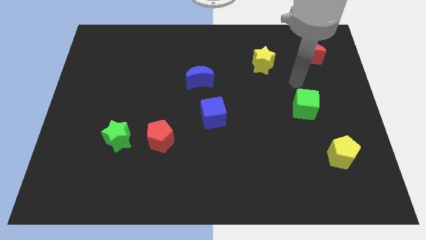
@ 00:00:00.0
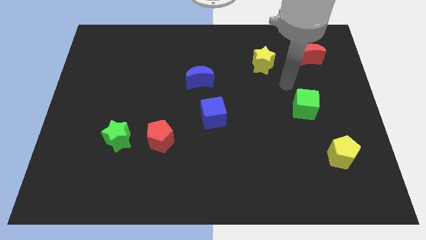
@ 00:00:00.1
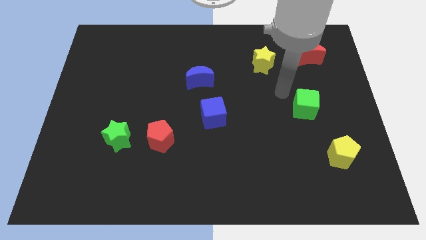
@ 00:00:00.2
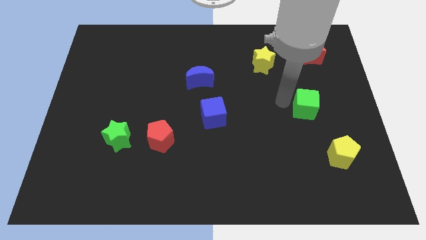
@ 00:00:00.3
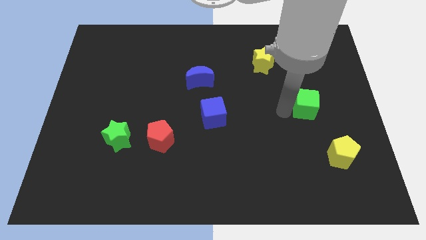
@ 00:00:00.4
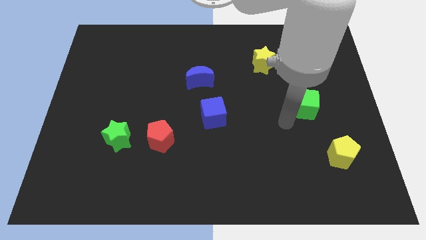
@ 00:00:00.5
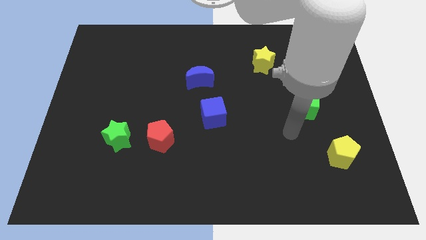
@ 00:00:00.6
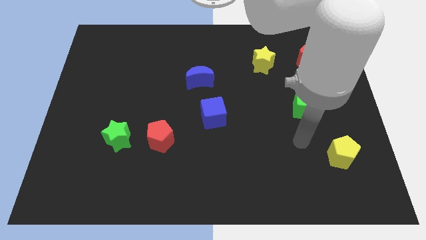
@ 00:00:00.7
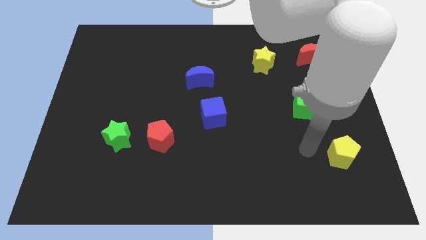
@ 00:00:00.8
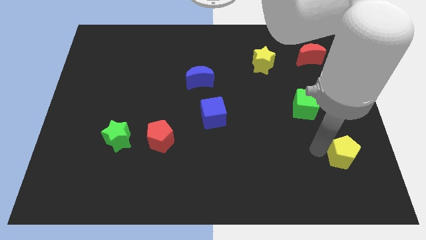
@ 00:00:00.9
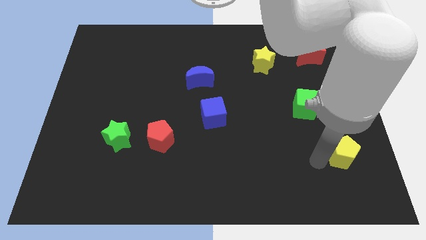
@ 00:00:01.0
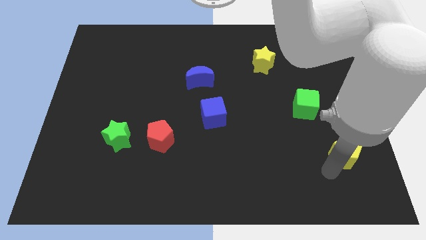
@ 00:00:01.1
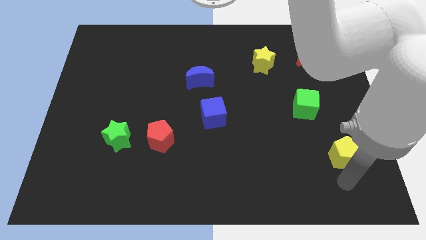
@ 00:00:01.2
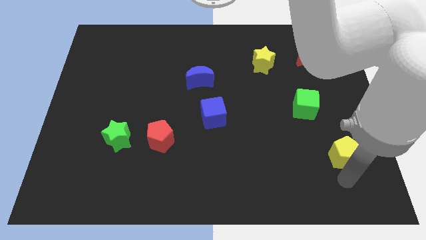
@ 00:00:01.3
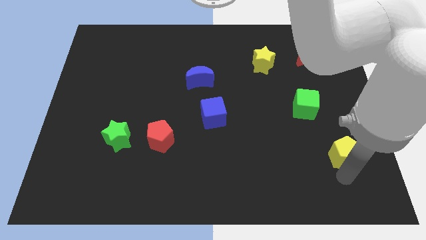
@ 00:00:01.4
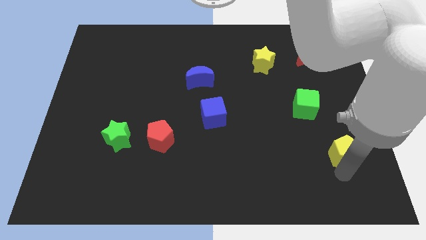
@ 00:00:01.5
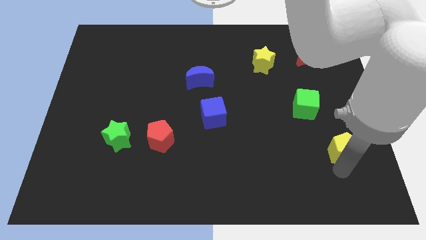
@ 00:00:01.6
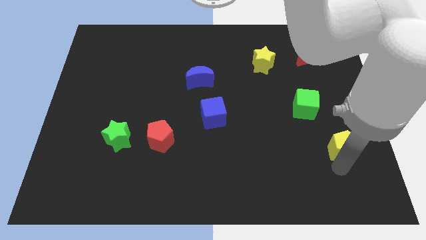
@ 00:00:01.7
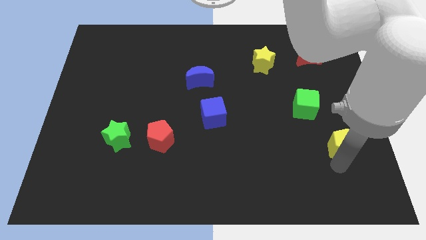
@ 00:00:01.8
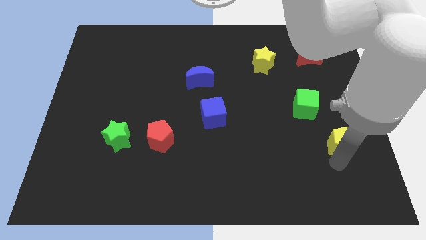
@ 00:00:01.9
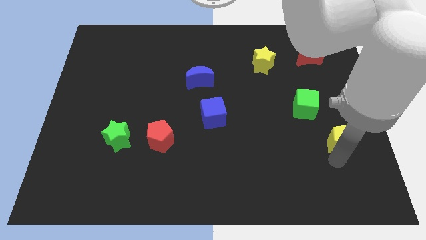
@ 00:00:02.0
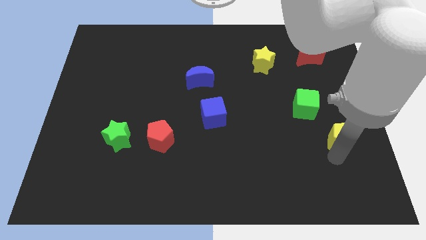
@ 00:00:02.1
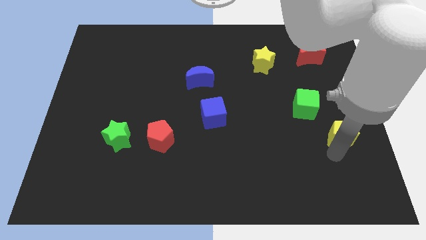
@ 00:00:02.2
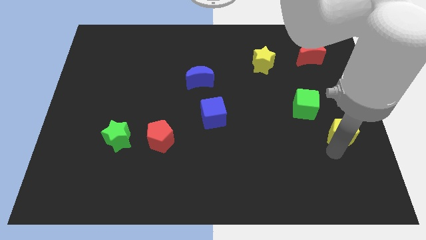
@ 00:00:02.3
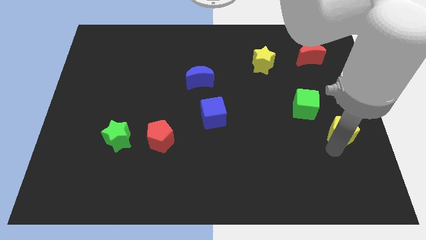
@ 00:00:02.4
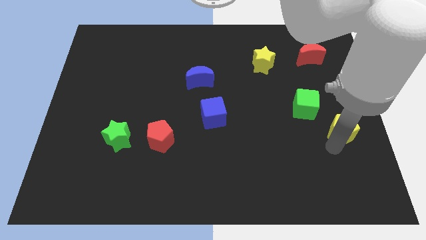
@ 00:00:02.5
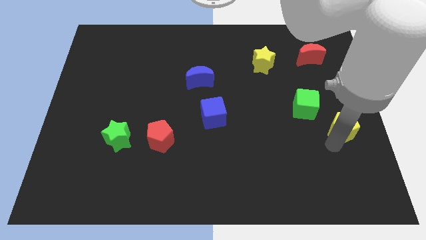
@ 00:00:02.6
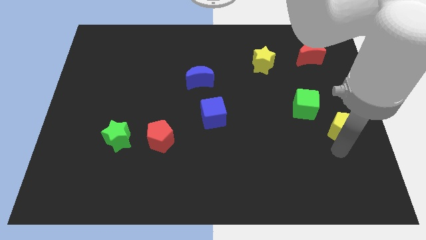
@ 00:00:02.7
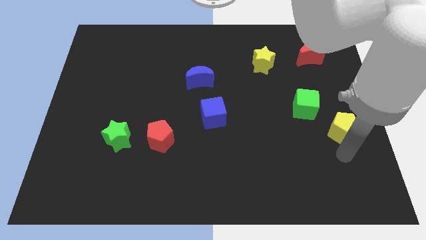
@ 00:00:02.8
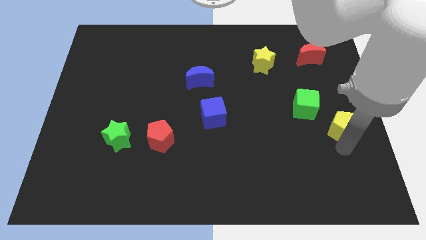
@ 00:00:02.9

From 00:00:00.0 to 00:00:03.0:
slightly push the yellow pentagon up

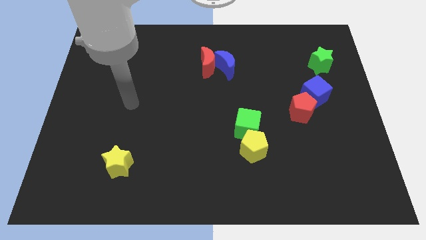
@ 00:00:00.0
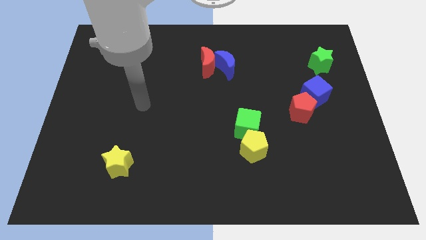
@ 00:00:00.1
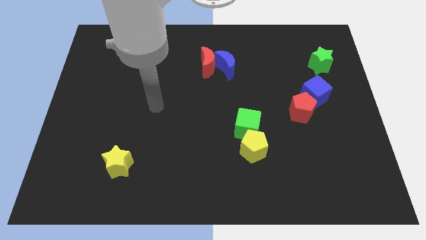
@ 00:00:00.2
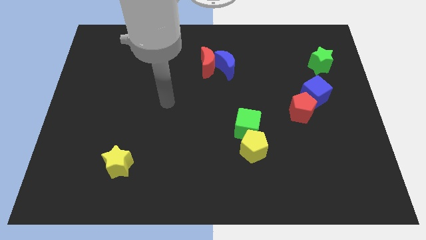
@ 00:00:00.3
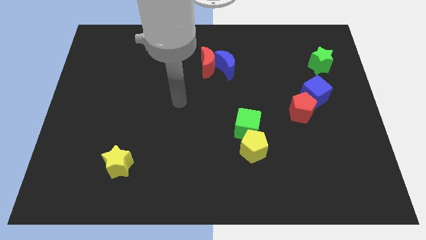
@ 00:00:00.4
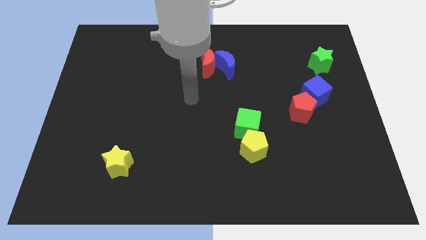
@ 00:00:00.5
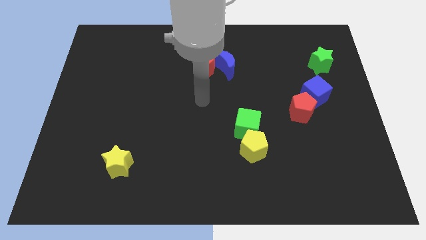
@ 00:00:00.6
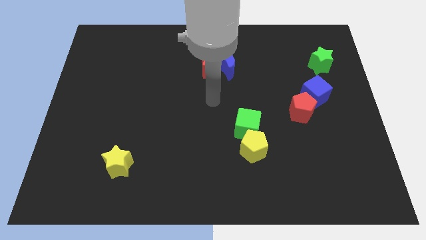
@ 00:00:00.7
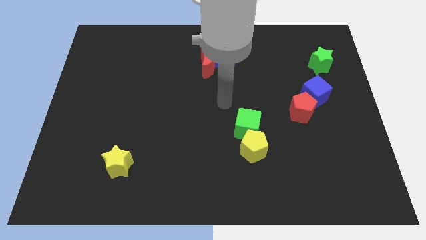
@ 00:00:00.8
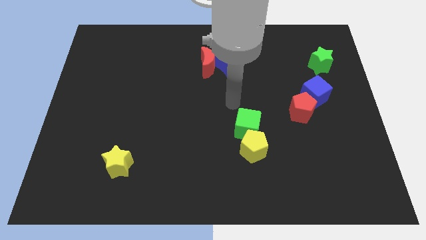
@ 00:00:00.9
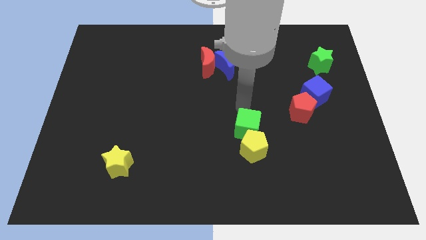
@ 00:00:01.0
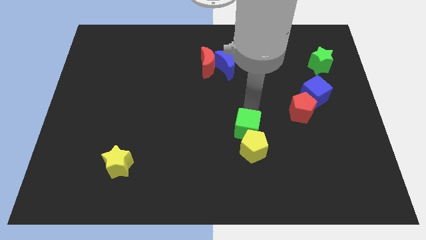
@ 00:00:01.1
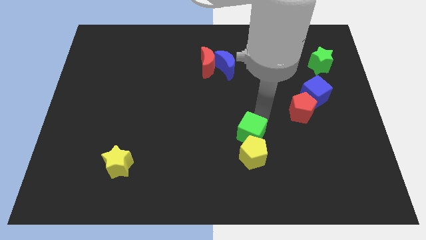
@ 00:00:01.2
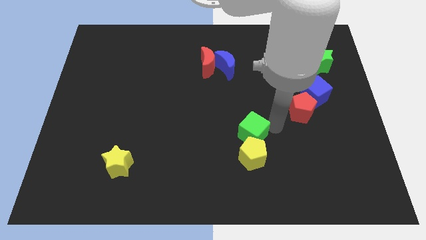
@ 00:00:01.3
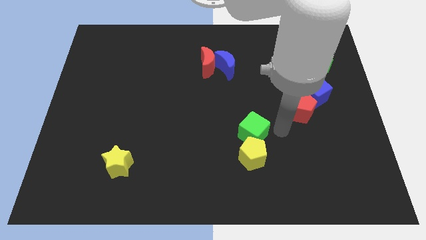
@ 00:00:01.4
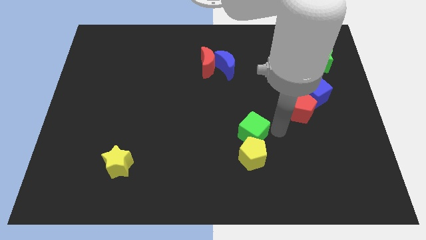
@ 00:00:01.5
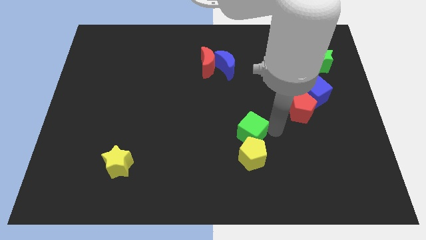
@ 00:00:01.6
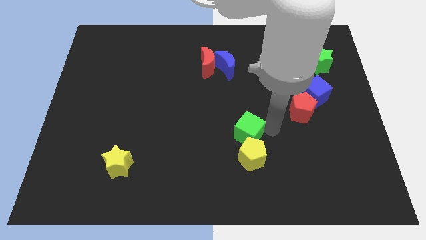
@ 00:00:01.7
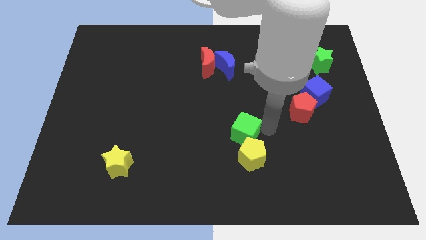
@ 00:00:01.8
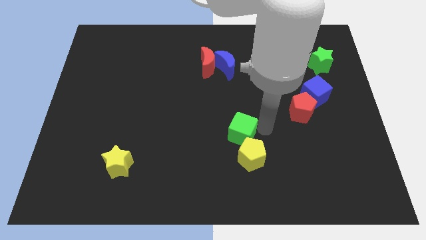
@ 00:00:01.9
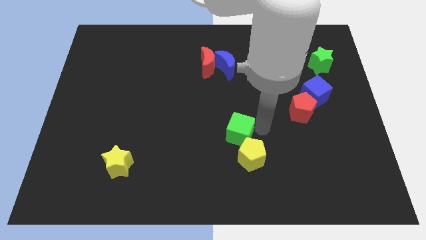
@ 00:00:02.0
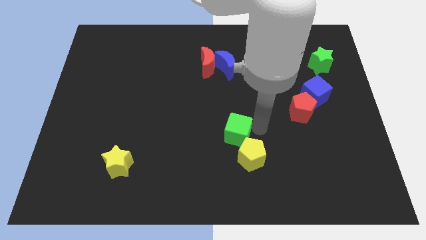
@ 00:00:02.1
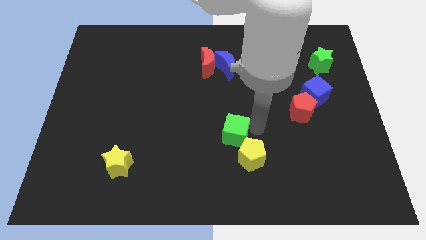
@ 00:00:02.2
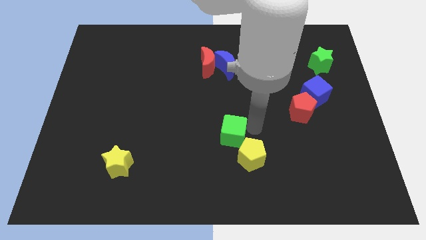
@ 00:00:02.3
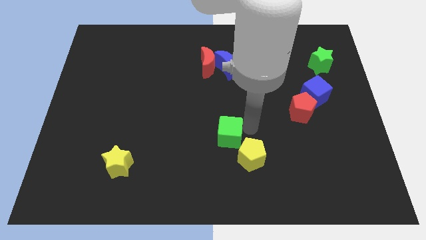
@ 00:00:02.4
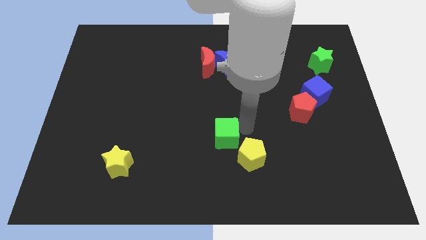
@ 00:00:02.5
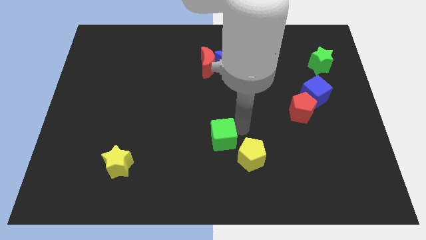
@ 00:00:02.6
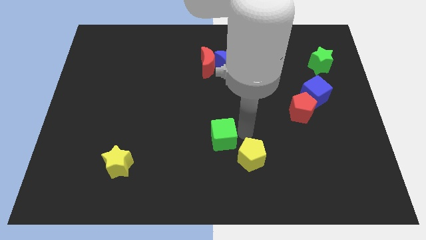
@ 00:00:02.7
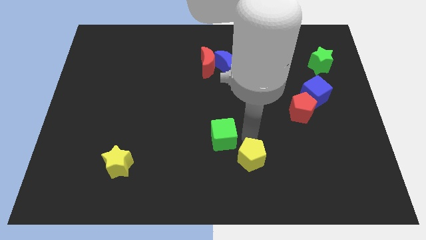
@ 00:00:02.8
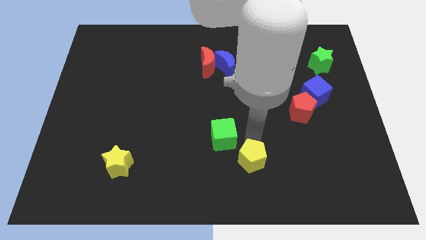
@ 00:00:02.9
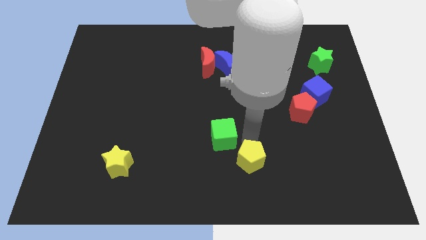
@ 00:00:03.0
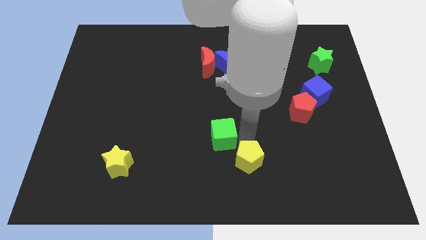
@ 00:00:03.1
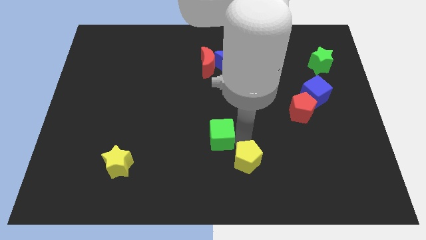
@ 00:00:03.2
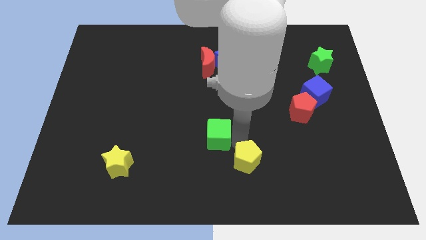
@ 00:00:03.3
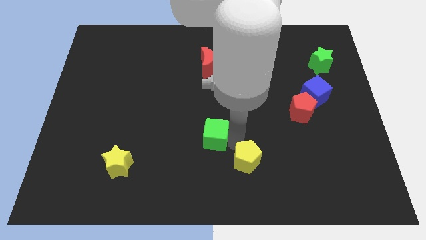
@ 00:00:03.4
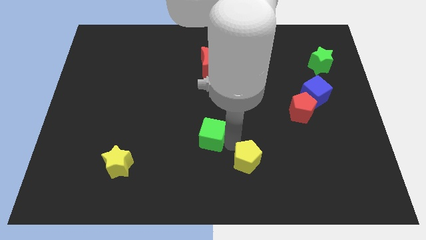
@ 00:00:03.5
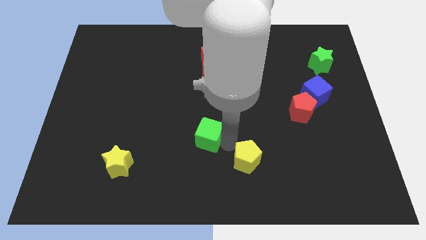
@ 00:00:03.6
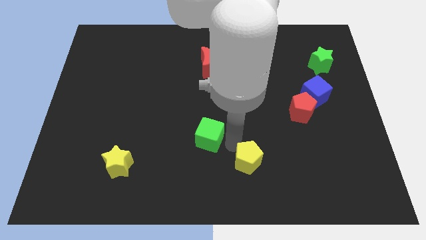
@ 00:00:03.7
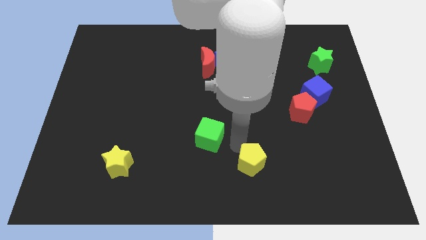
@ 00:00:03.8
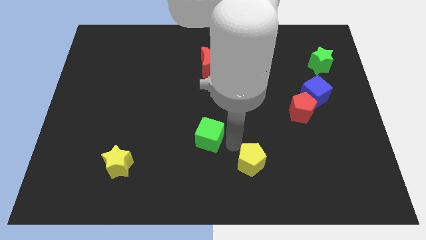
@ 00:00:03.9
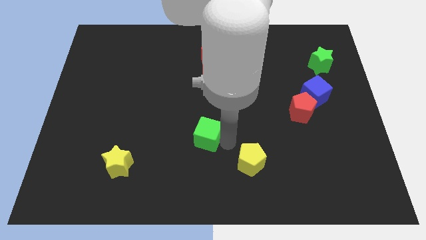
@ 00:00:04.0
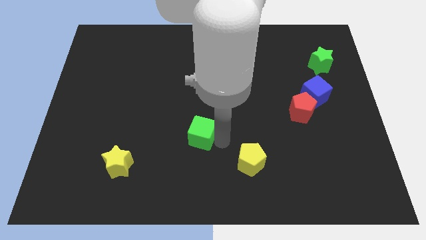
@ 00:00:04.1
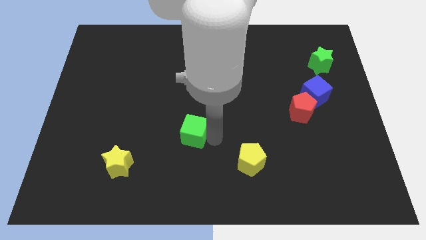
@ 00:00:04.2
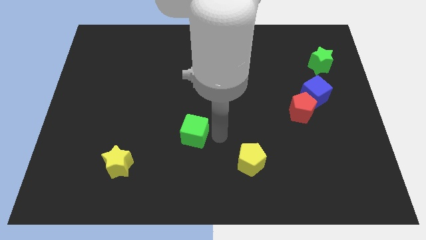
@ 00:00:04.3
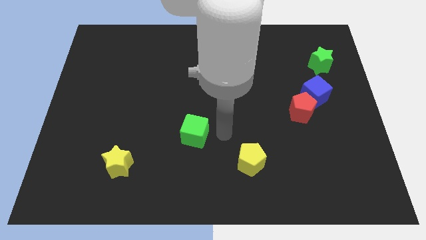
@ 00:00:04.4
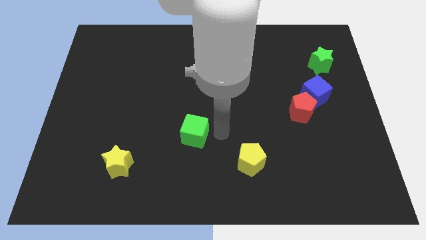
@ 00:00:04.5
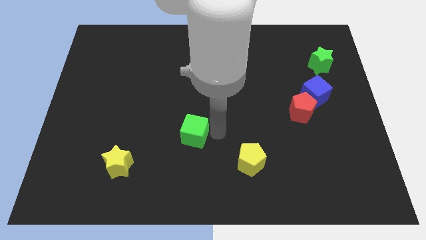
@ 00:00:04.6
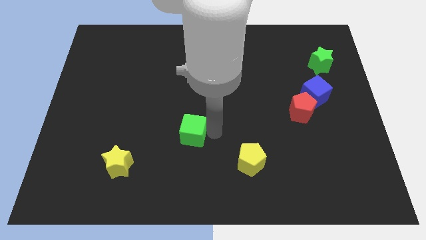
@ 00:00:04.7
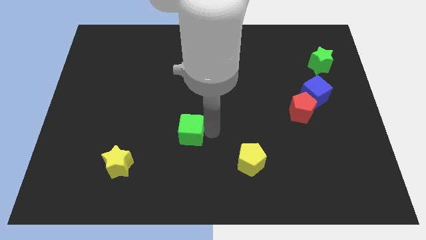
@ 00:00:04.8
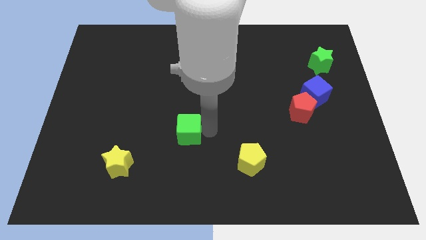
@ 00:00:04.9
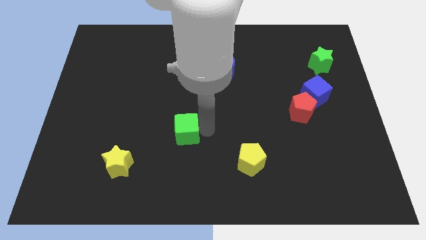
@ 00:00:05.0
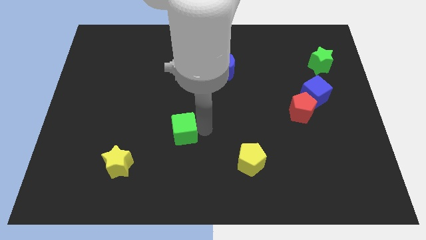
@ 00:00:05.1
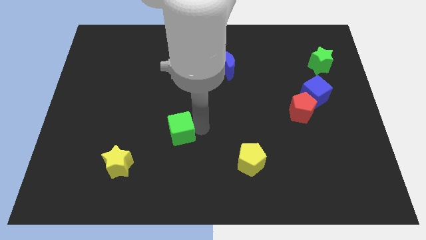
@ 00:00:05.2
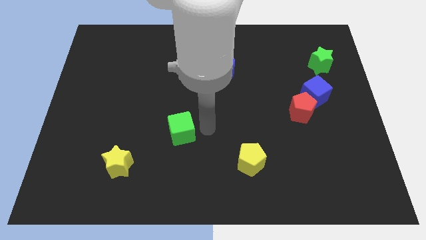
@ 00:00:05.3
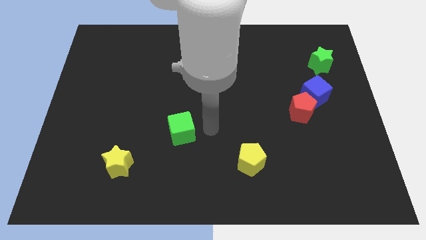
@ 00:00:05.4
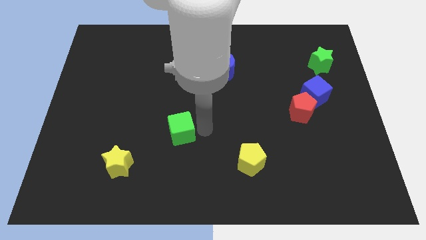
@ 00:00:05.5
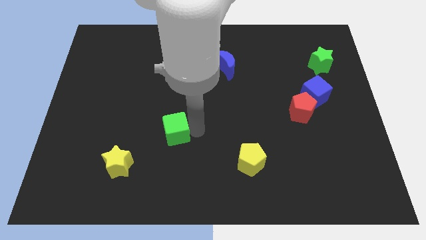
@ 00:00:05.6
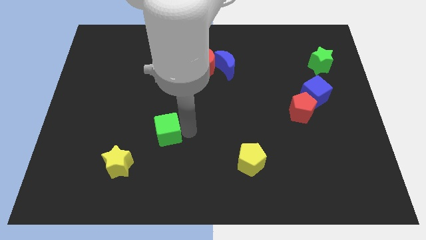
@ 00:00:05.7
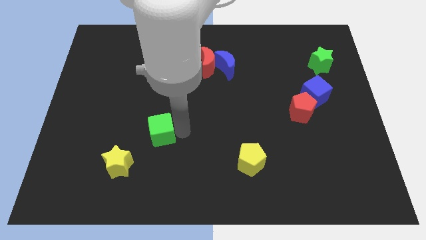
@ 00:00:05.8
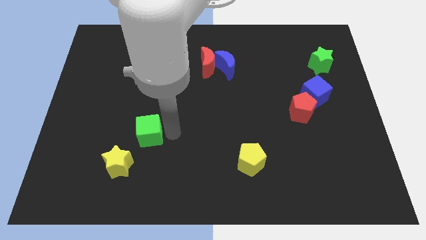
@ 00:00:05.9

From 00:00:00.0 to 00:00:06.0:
slide the green cube to the left
